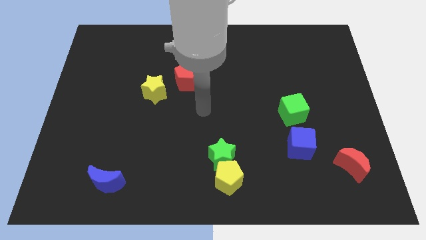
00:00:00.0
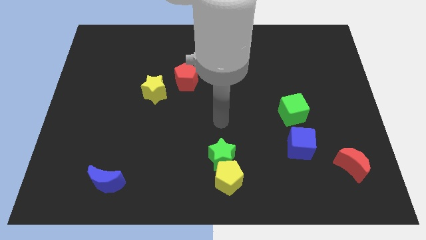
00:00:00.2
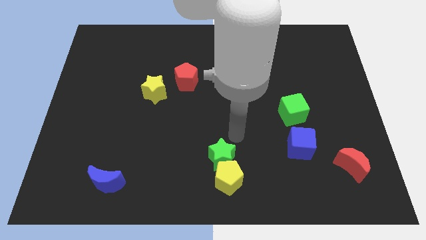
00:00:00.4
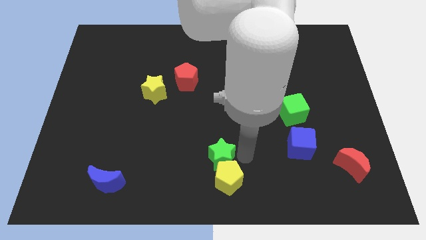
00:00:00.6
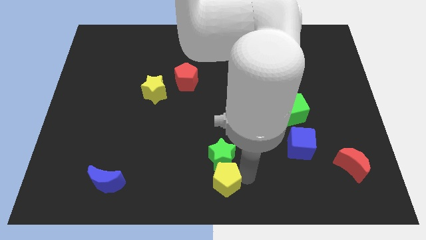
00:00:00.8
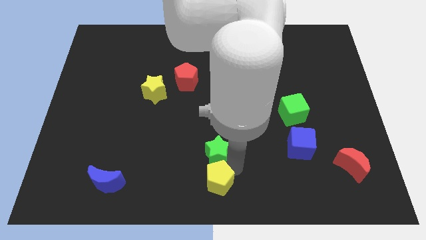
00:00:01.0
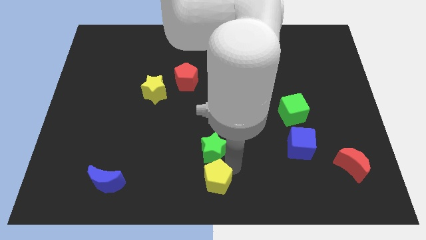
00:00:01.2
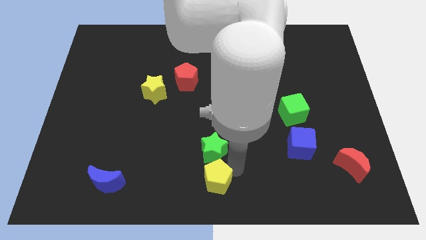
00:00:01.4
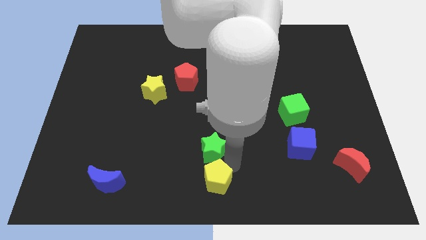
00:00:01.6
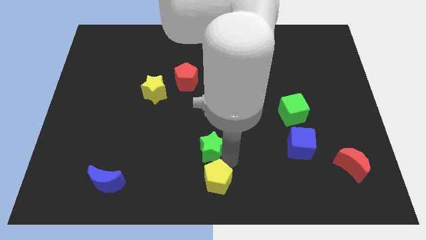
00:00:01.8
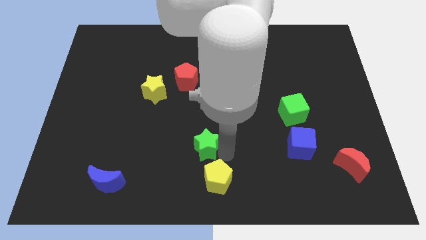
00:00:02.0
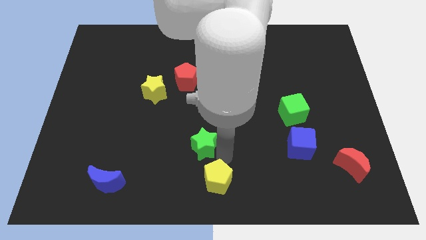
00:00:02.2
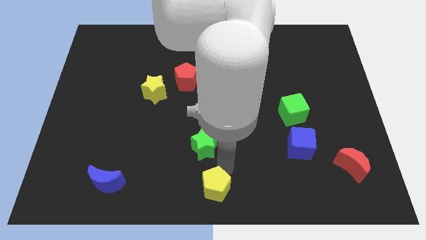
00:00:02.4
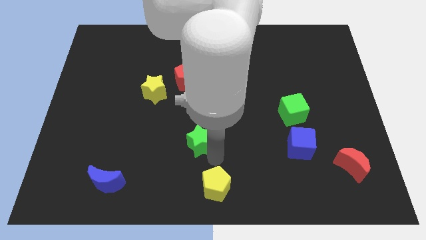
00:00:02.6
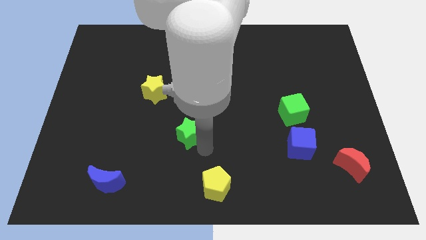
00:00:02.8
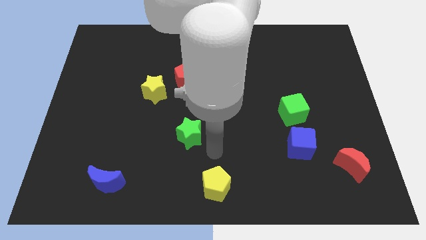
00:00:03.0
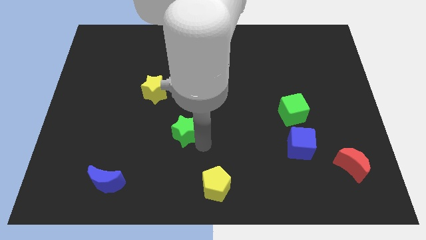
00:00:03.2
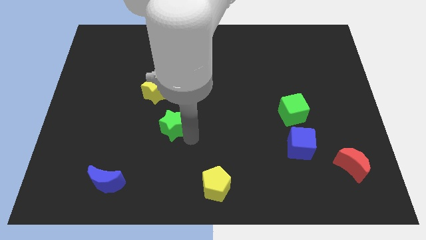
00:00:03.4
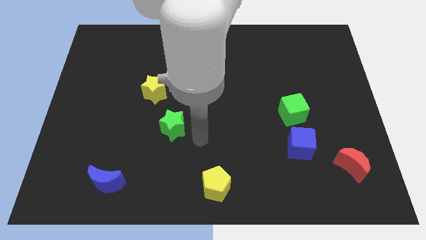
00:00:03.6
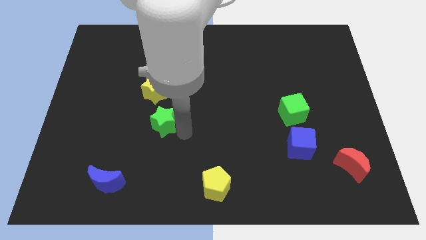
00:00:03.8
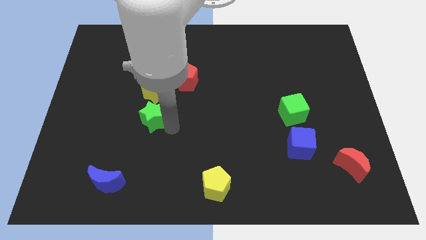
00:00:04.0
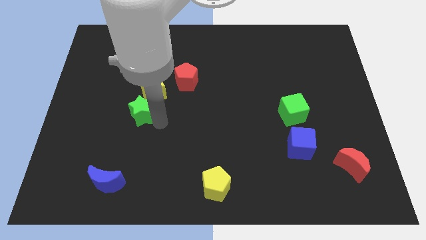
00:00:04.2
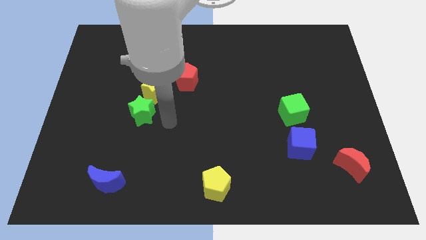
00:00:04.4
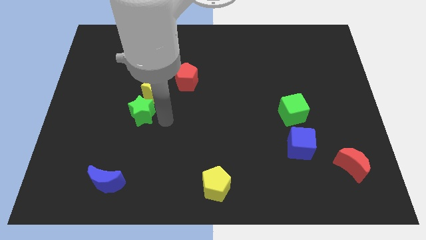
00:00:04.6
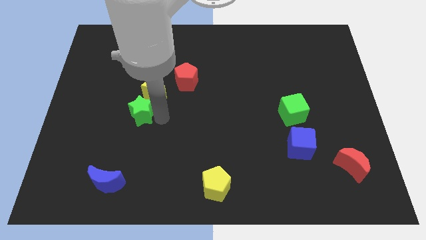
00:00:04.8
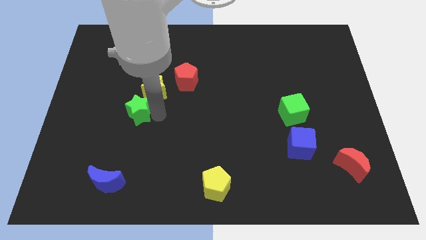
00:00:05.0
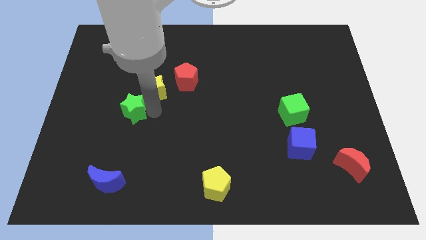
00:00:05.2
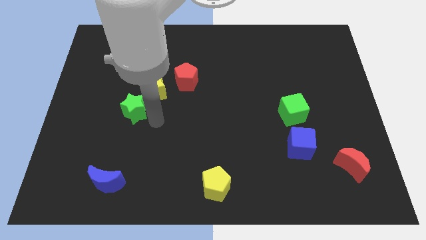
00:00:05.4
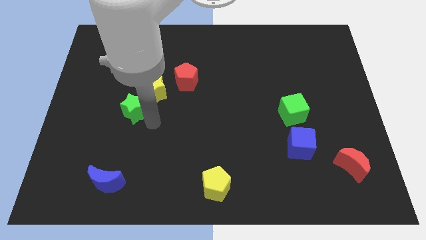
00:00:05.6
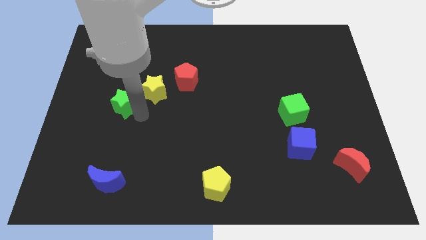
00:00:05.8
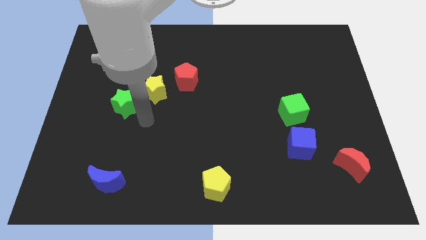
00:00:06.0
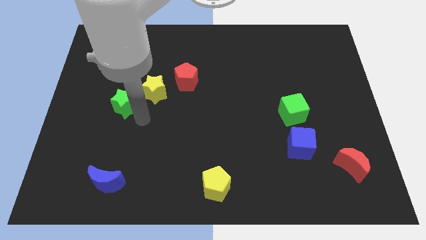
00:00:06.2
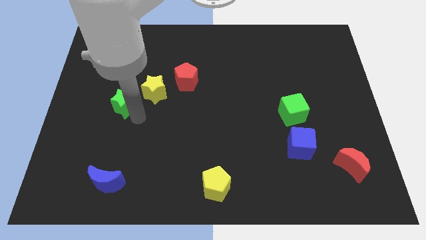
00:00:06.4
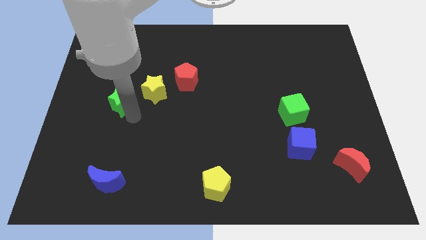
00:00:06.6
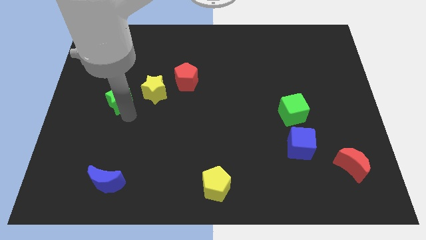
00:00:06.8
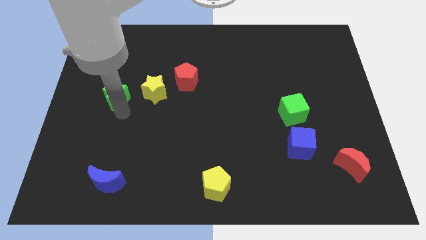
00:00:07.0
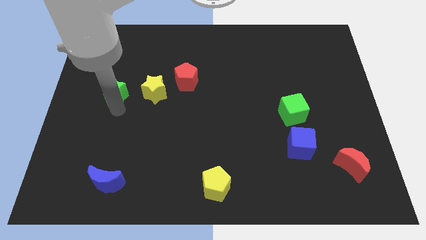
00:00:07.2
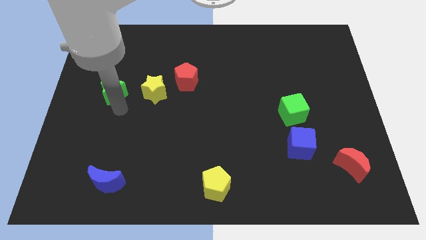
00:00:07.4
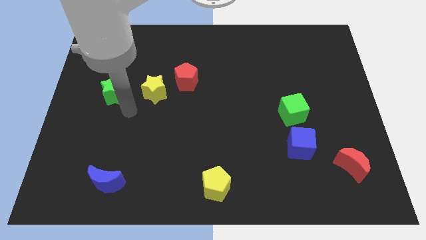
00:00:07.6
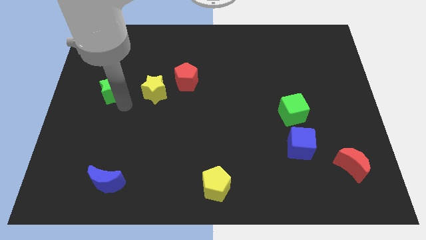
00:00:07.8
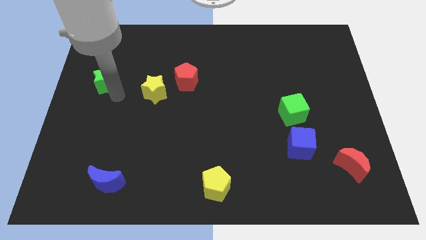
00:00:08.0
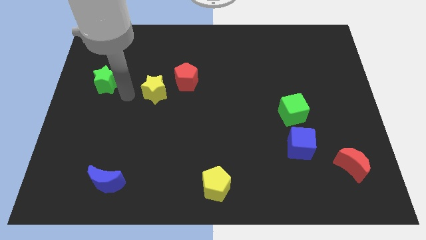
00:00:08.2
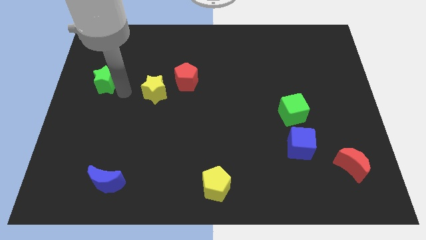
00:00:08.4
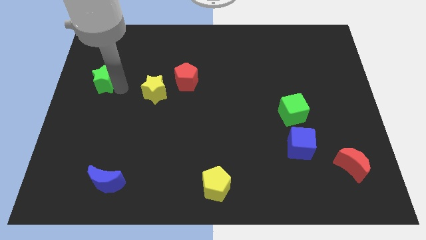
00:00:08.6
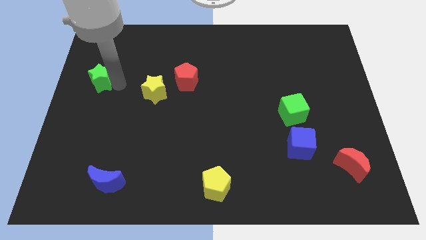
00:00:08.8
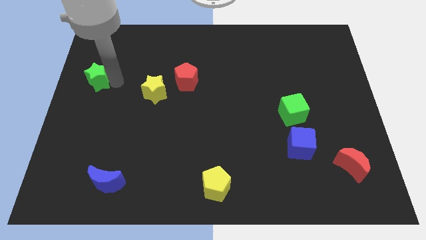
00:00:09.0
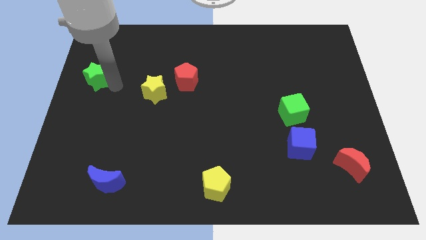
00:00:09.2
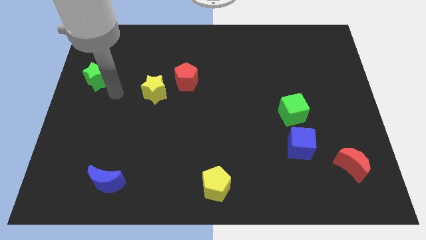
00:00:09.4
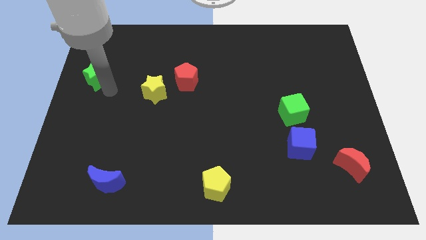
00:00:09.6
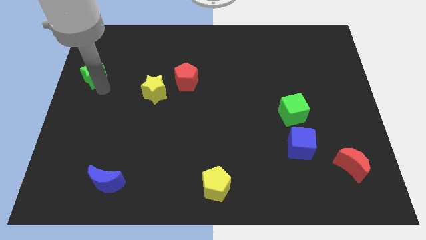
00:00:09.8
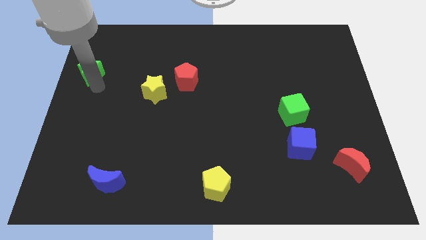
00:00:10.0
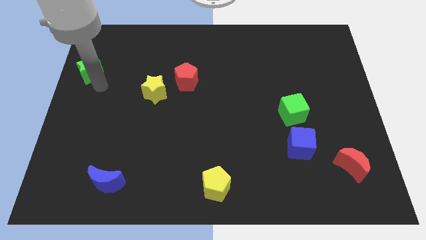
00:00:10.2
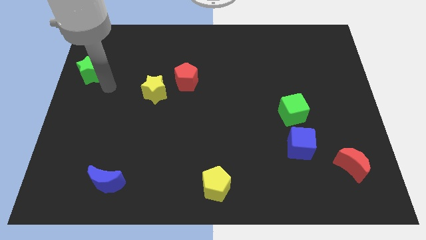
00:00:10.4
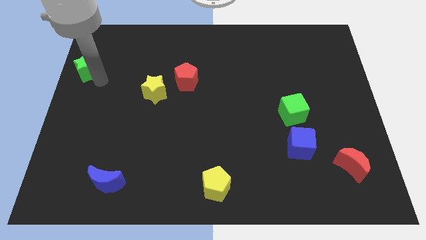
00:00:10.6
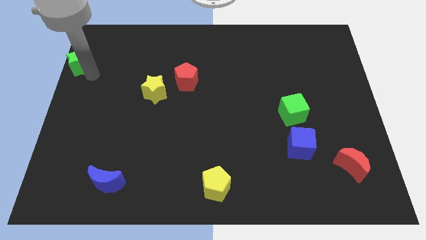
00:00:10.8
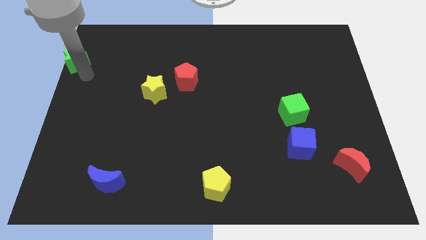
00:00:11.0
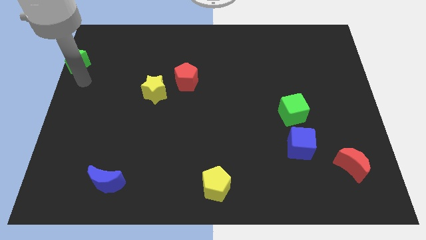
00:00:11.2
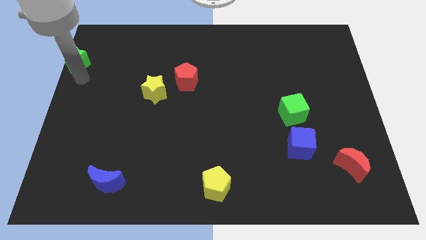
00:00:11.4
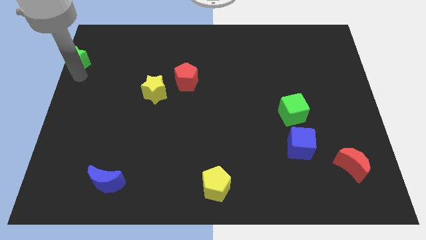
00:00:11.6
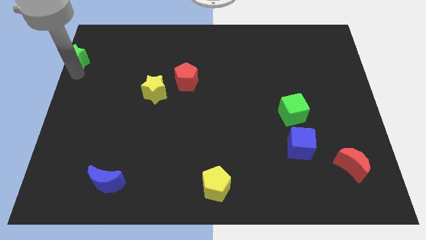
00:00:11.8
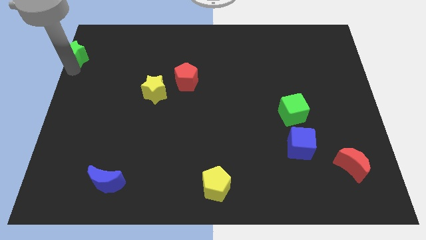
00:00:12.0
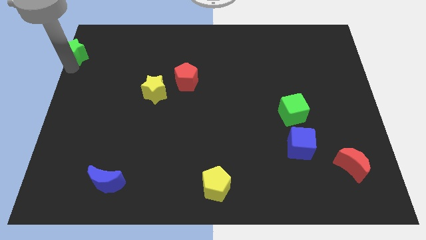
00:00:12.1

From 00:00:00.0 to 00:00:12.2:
move the green star to the top left

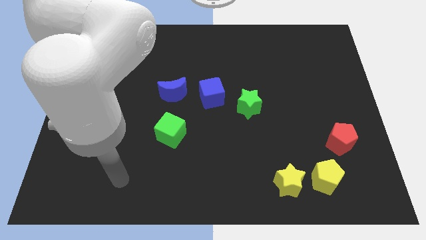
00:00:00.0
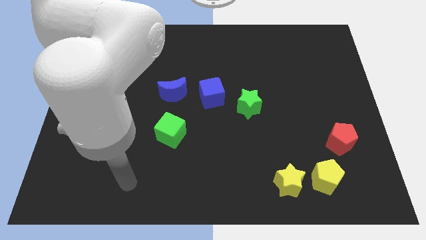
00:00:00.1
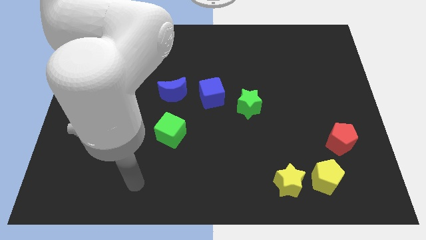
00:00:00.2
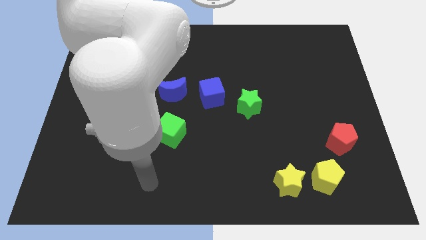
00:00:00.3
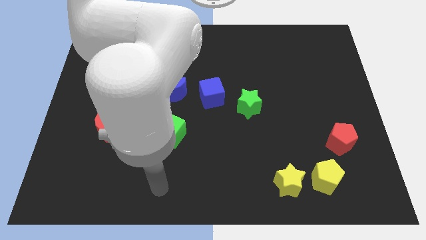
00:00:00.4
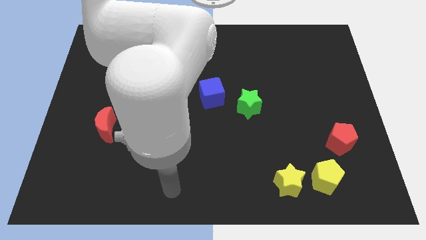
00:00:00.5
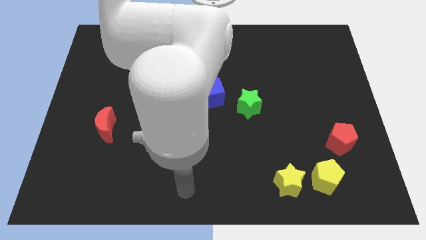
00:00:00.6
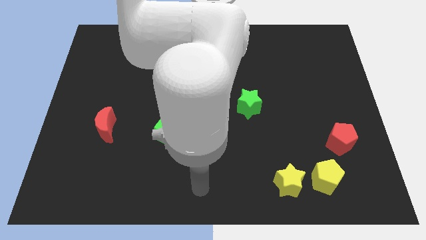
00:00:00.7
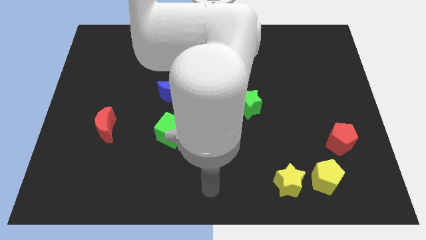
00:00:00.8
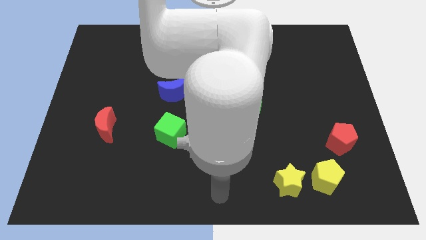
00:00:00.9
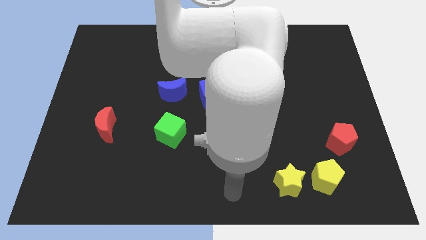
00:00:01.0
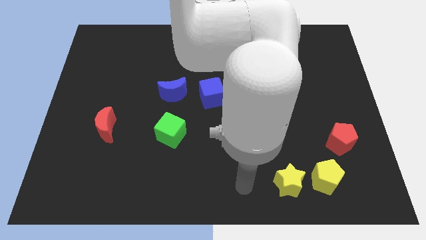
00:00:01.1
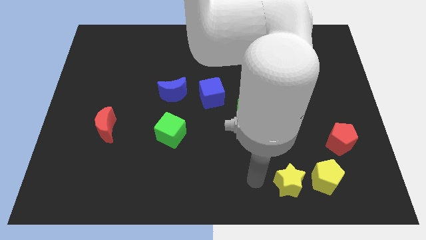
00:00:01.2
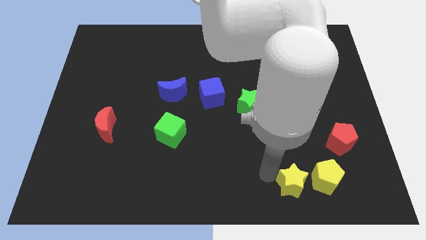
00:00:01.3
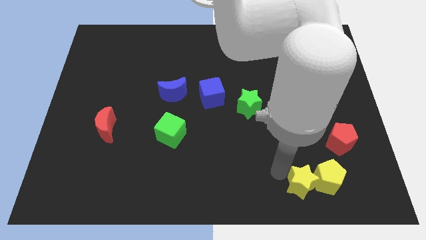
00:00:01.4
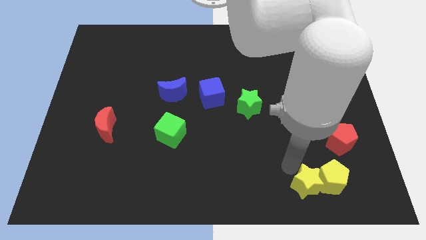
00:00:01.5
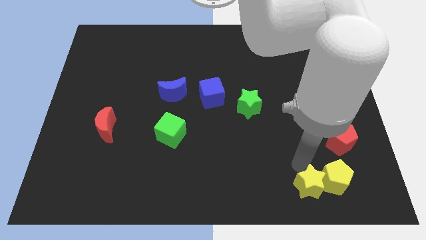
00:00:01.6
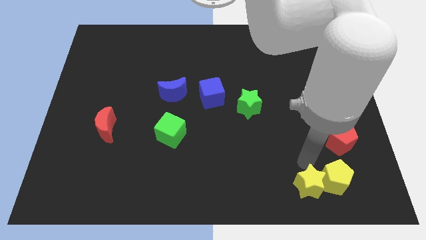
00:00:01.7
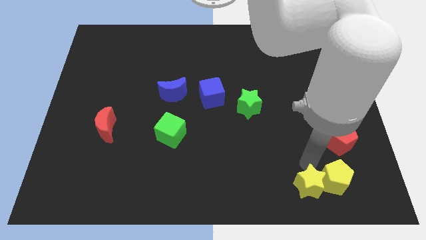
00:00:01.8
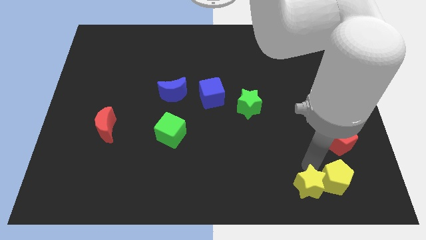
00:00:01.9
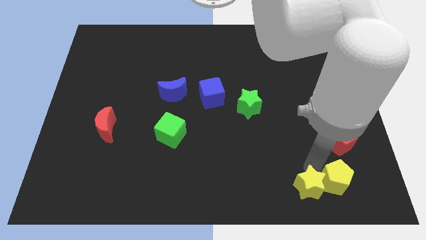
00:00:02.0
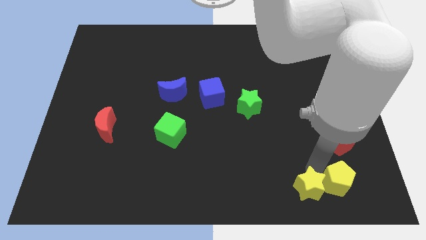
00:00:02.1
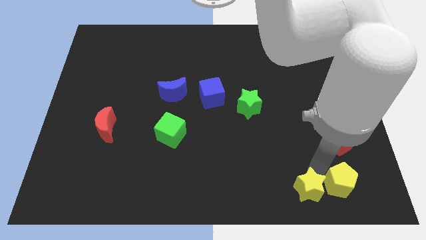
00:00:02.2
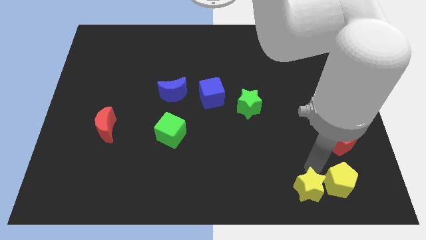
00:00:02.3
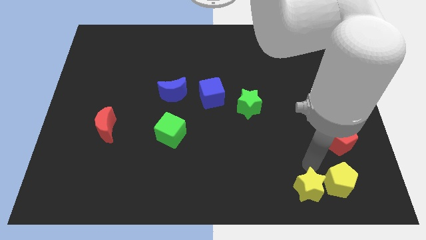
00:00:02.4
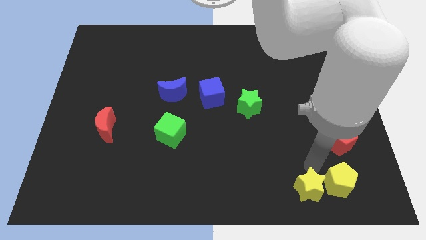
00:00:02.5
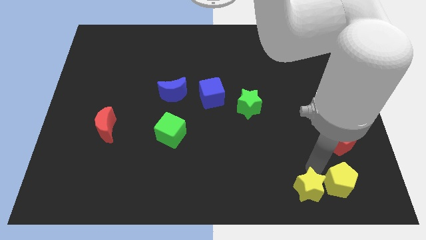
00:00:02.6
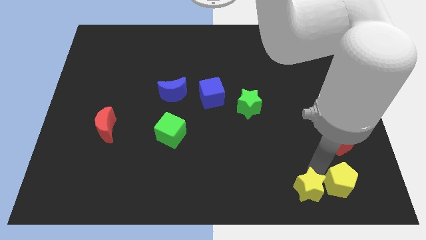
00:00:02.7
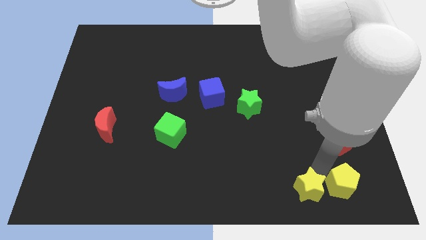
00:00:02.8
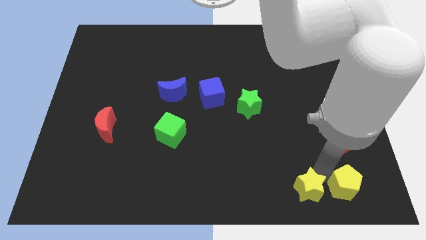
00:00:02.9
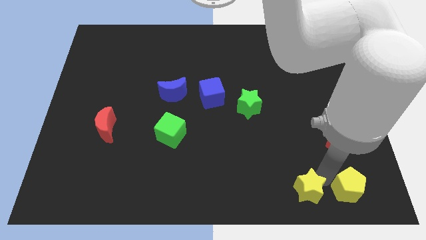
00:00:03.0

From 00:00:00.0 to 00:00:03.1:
put the yellow pentagon to the bottom right corner
